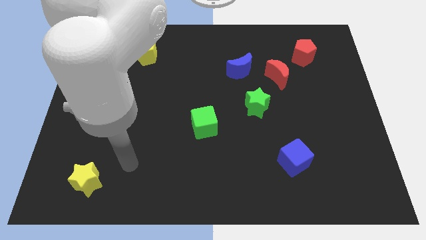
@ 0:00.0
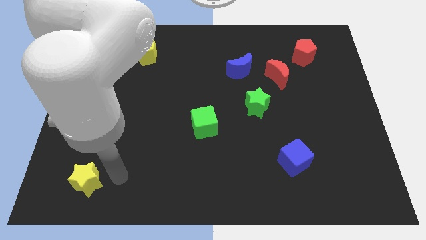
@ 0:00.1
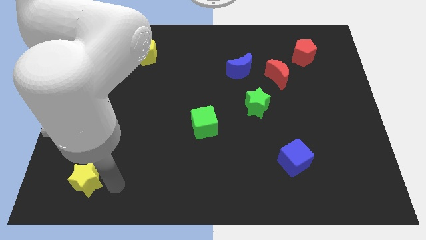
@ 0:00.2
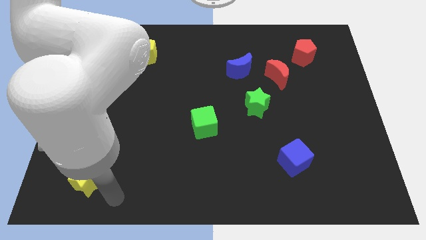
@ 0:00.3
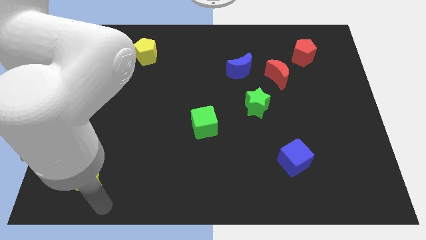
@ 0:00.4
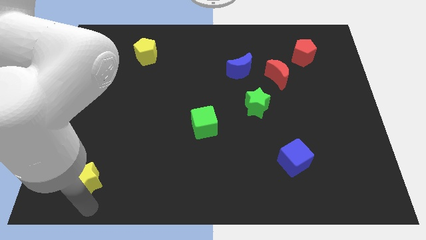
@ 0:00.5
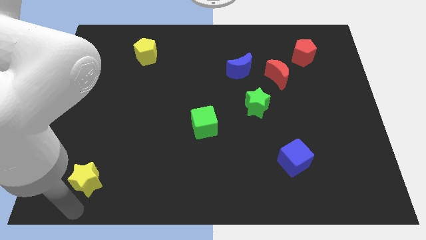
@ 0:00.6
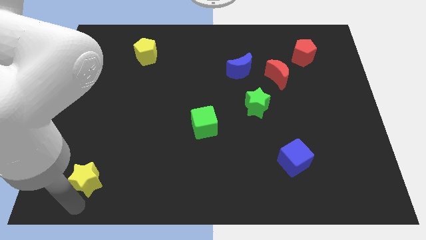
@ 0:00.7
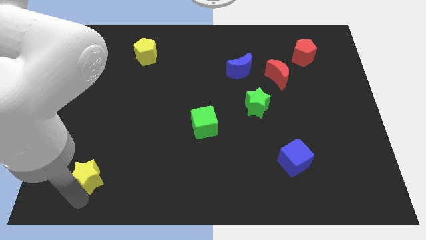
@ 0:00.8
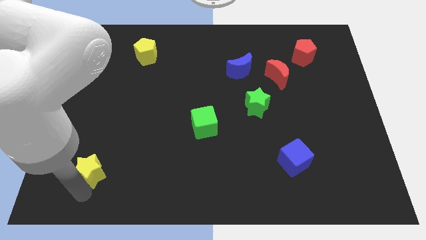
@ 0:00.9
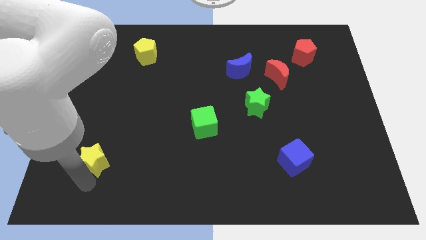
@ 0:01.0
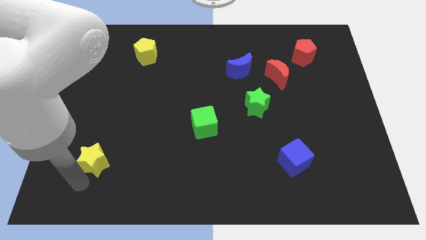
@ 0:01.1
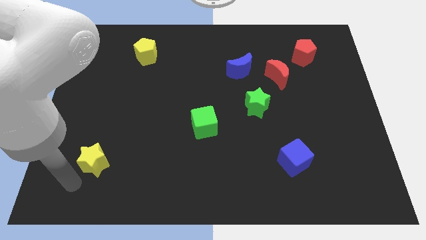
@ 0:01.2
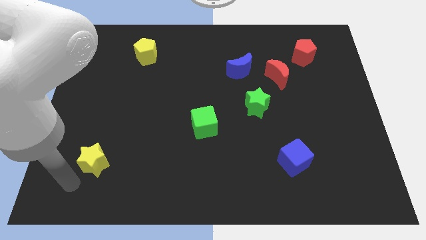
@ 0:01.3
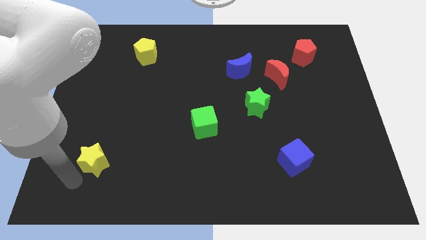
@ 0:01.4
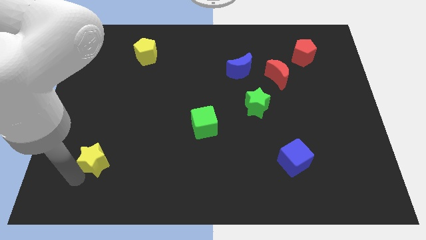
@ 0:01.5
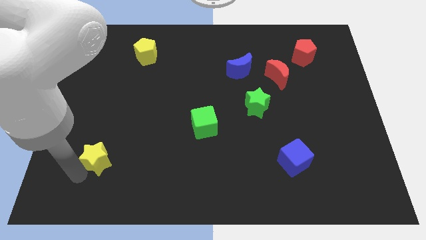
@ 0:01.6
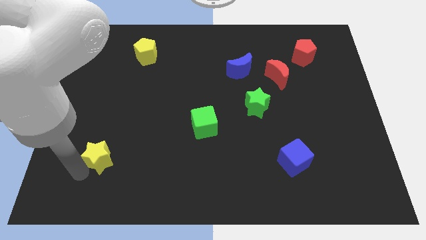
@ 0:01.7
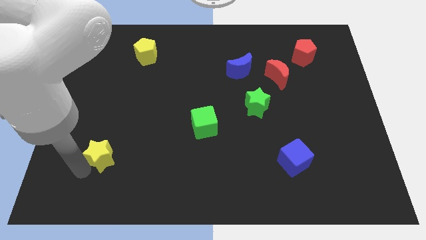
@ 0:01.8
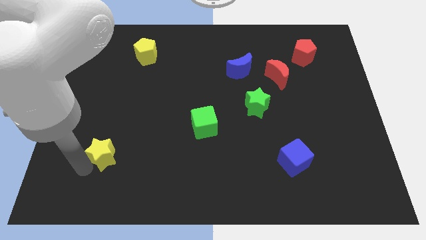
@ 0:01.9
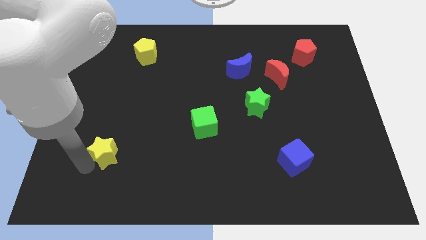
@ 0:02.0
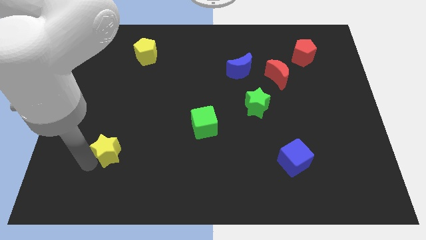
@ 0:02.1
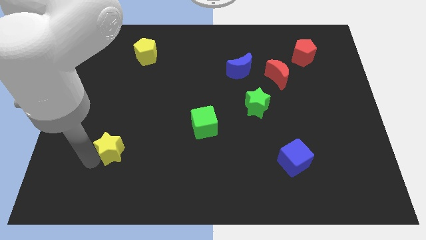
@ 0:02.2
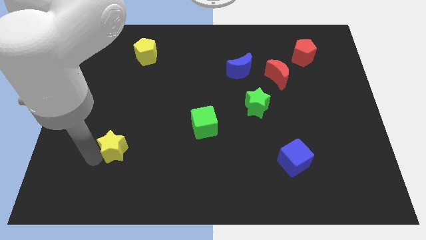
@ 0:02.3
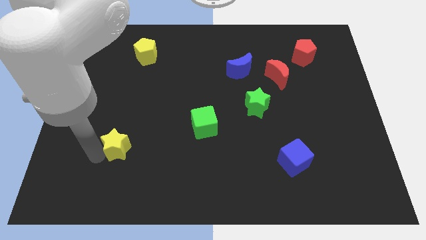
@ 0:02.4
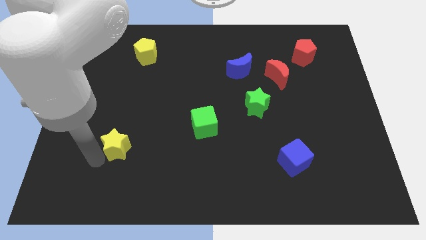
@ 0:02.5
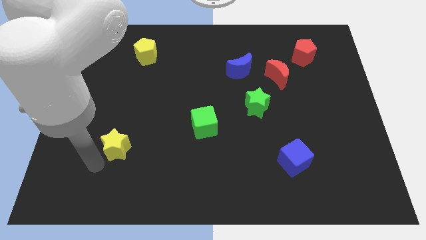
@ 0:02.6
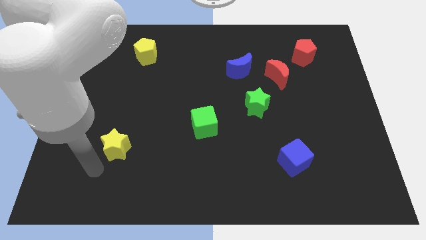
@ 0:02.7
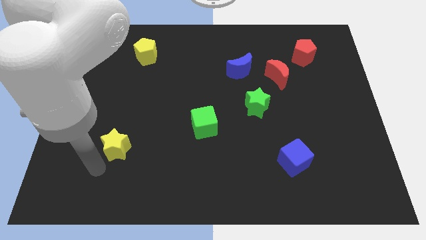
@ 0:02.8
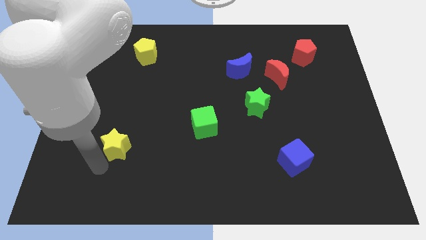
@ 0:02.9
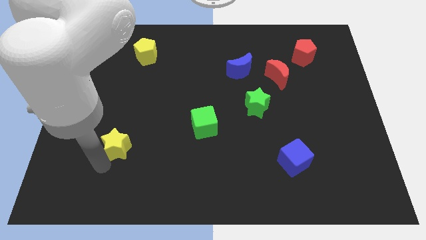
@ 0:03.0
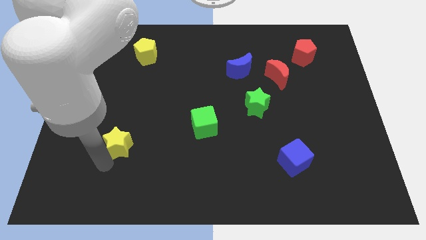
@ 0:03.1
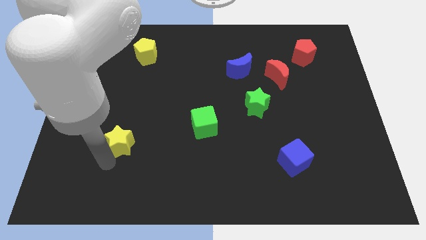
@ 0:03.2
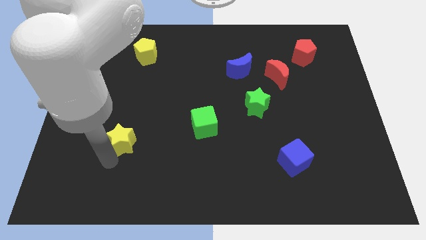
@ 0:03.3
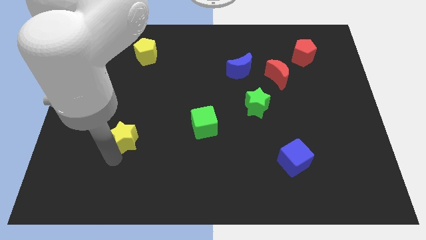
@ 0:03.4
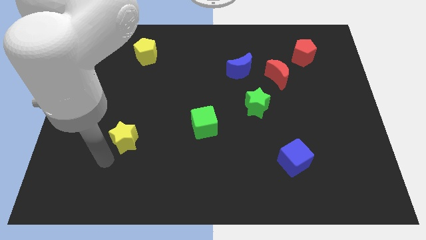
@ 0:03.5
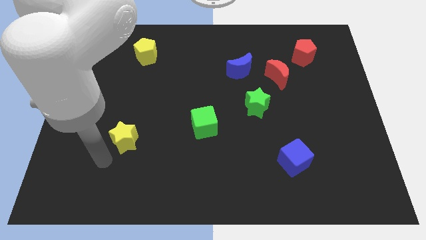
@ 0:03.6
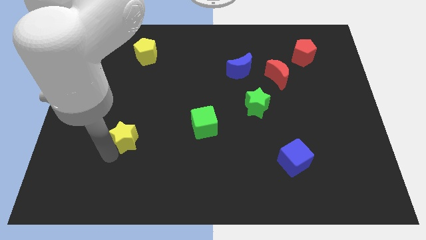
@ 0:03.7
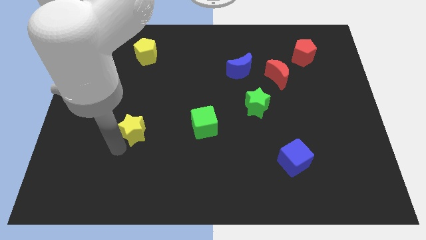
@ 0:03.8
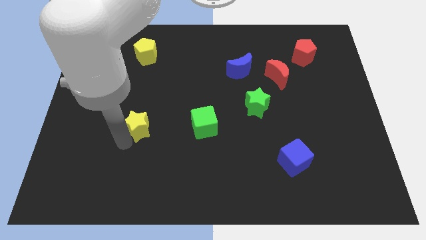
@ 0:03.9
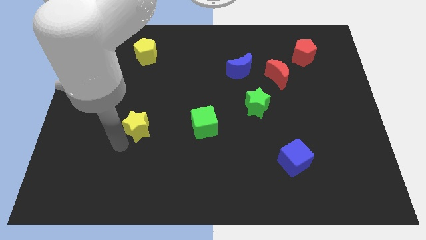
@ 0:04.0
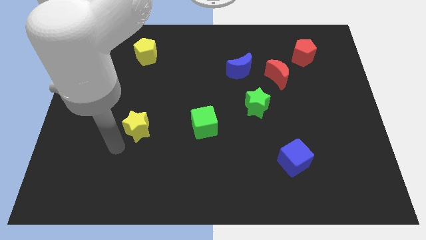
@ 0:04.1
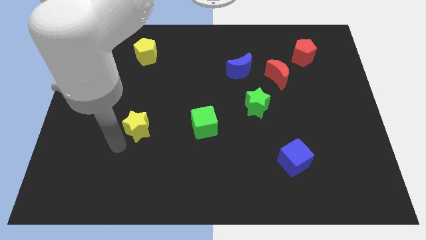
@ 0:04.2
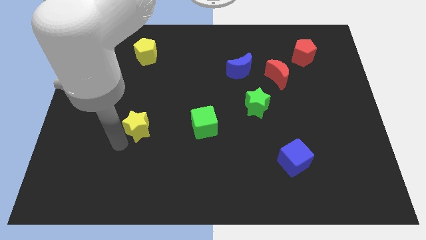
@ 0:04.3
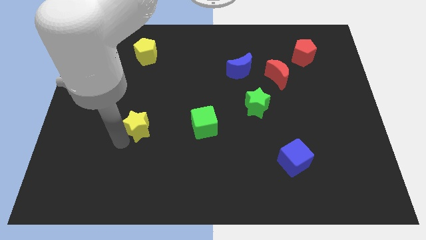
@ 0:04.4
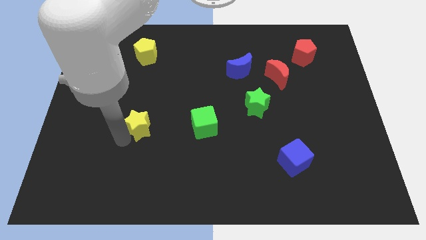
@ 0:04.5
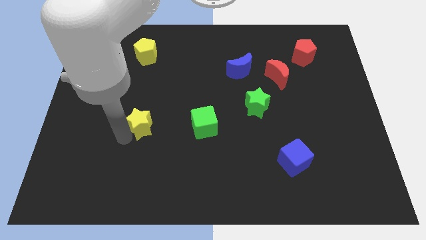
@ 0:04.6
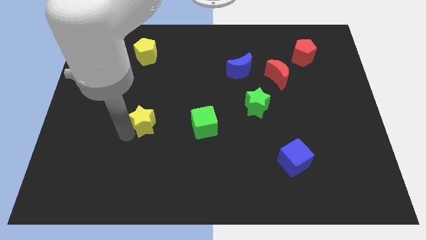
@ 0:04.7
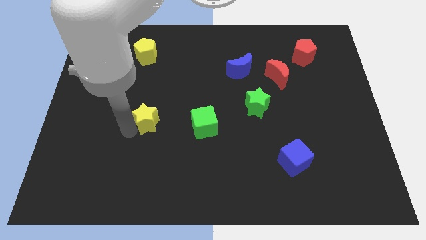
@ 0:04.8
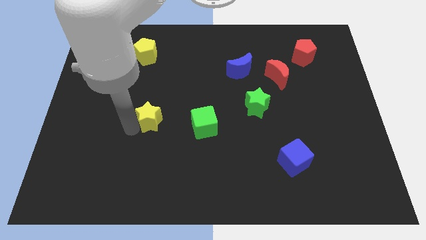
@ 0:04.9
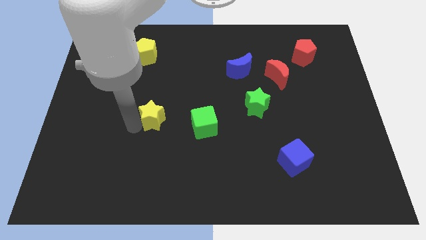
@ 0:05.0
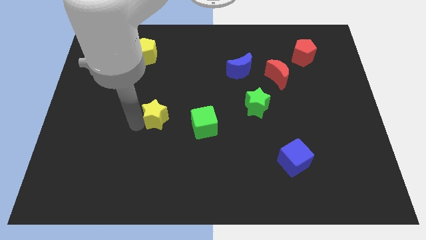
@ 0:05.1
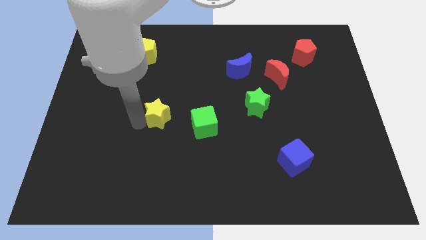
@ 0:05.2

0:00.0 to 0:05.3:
slide the yellow star upwards and to the right

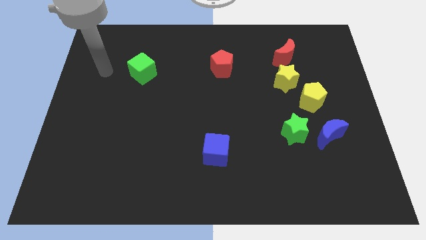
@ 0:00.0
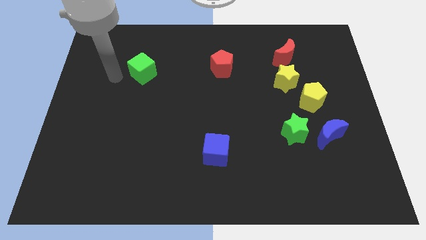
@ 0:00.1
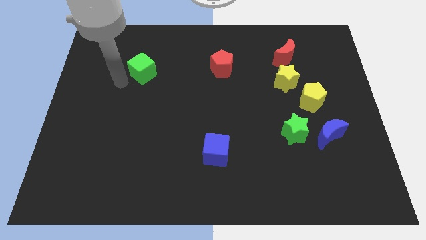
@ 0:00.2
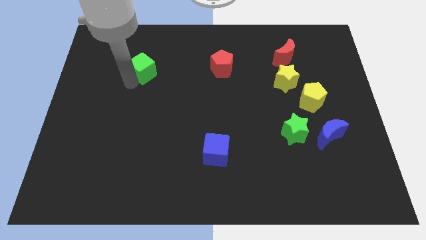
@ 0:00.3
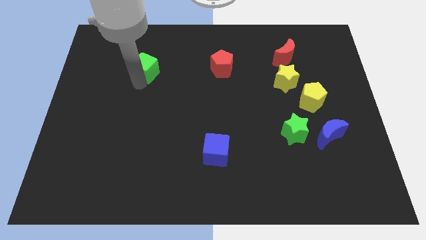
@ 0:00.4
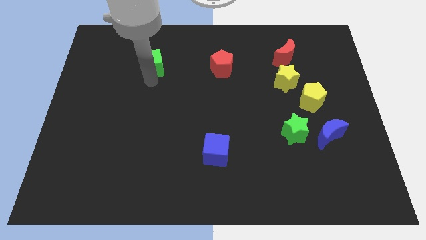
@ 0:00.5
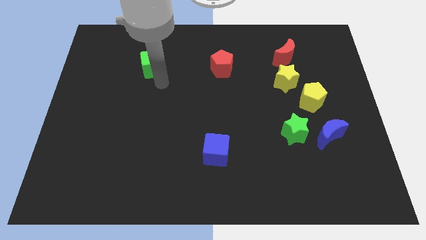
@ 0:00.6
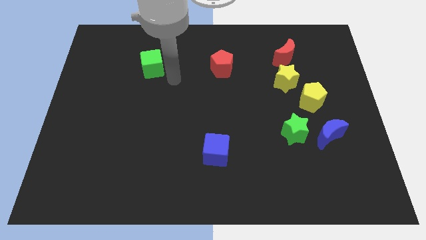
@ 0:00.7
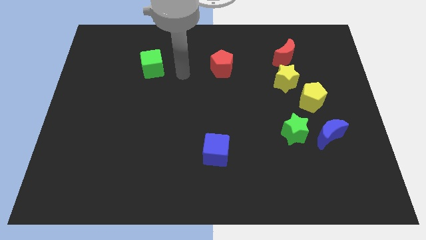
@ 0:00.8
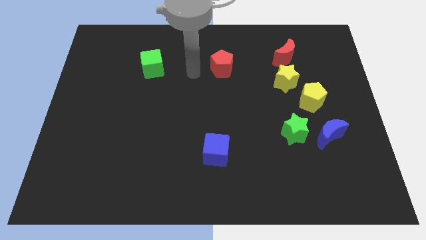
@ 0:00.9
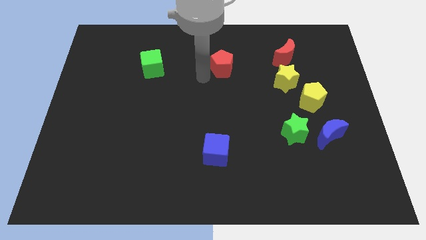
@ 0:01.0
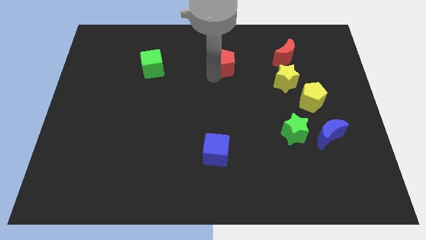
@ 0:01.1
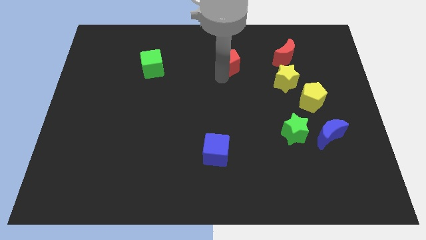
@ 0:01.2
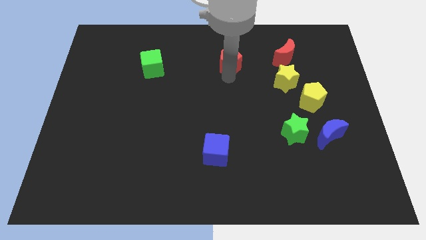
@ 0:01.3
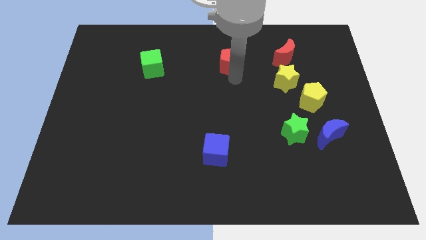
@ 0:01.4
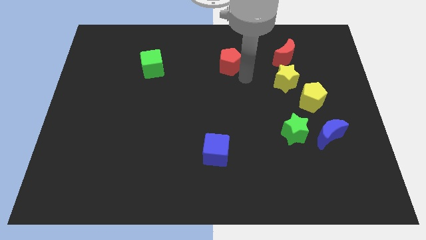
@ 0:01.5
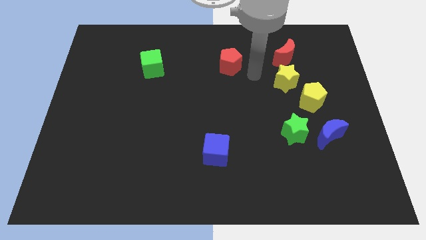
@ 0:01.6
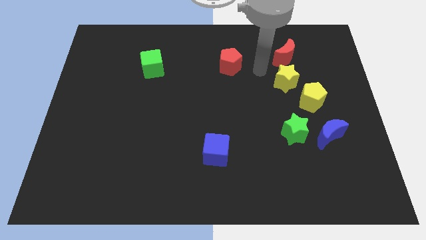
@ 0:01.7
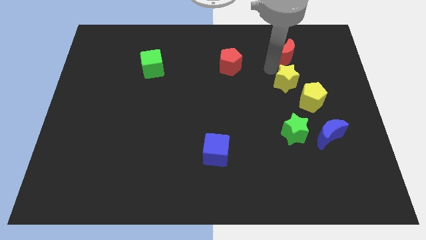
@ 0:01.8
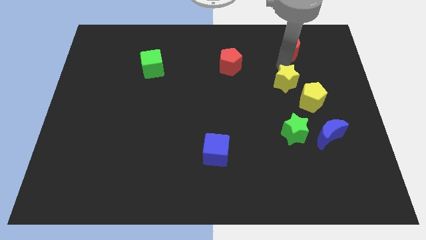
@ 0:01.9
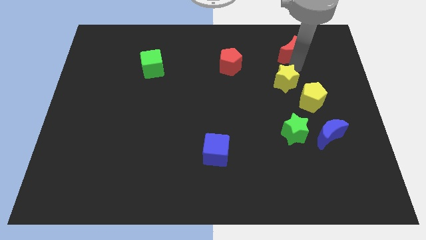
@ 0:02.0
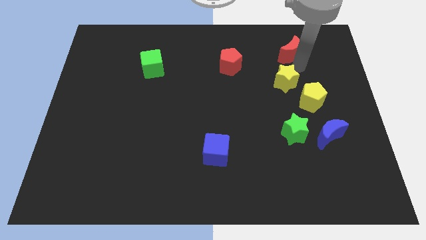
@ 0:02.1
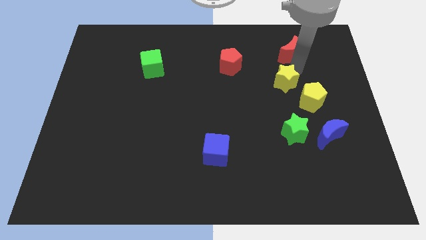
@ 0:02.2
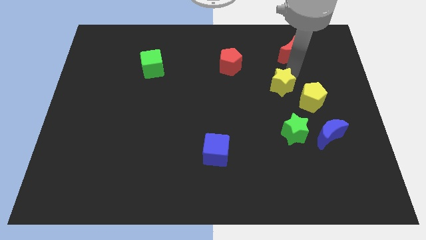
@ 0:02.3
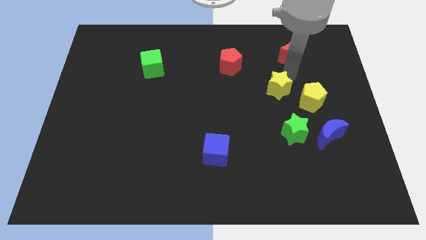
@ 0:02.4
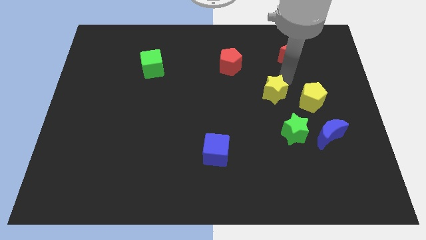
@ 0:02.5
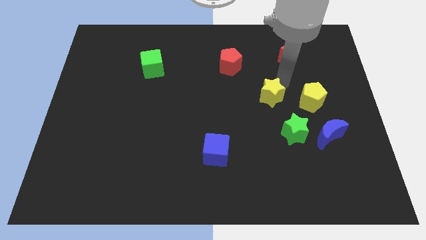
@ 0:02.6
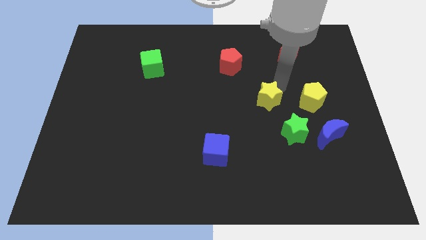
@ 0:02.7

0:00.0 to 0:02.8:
slide the yellow star downwards and left diagonally slightly
